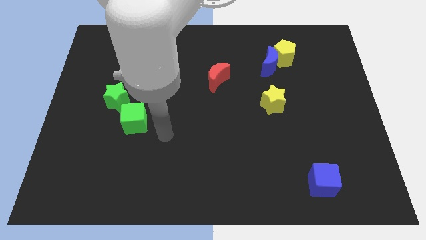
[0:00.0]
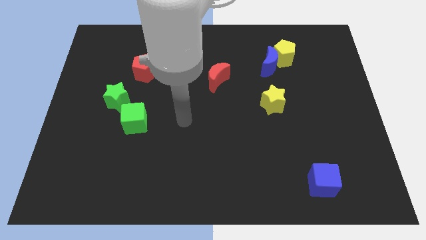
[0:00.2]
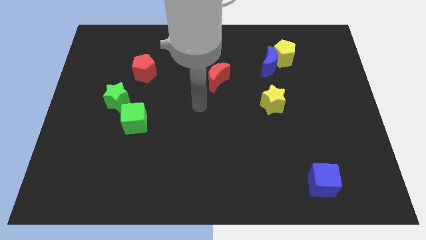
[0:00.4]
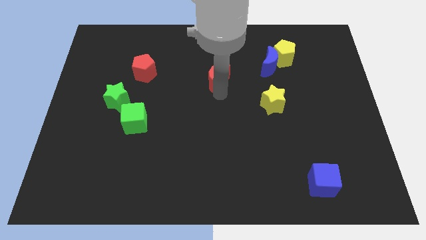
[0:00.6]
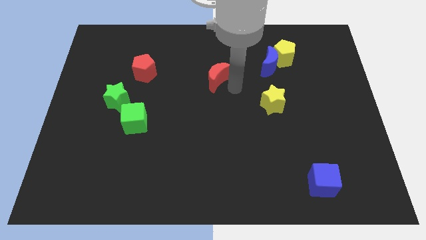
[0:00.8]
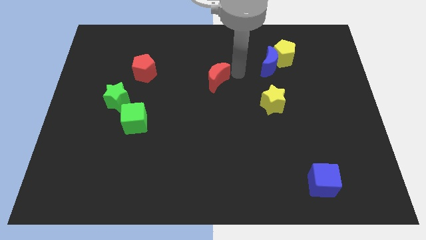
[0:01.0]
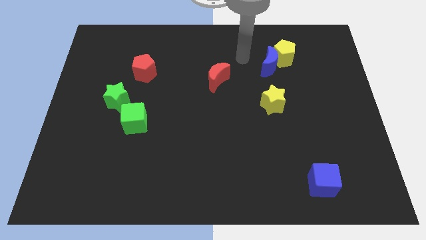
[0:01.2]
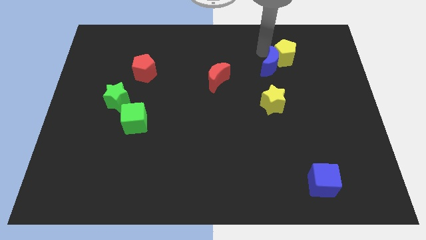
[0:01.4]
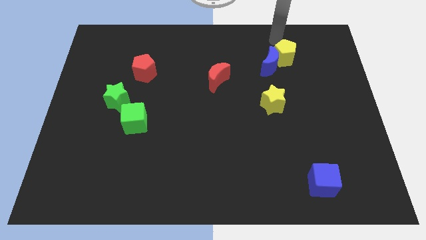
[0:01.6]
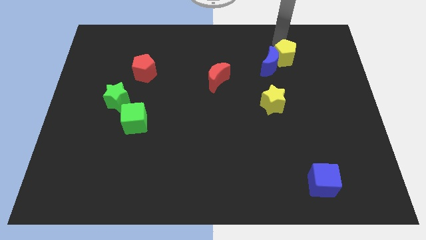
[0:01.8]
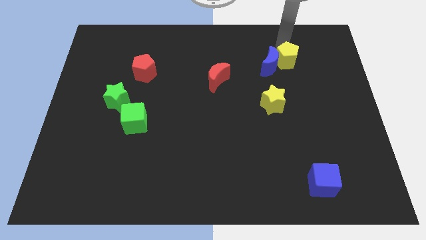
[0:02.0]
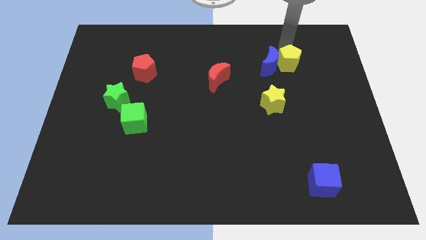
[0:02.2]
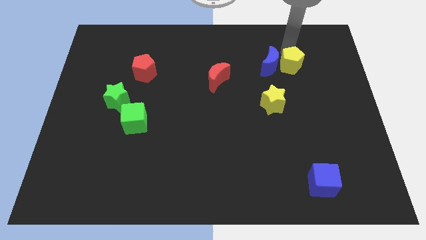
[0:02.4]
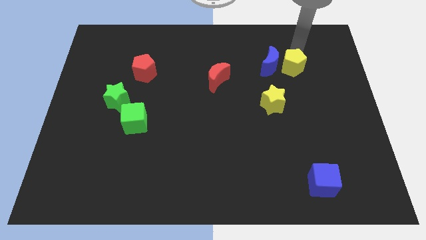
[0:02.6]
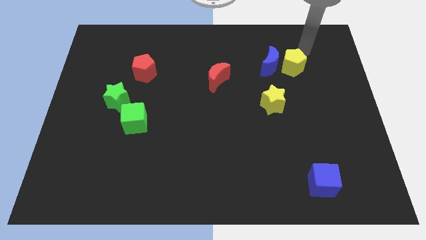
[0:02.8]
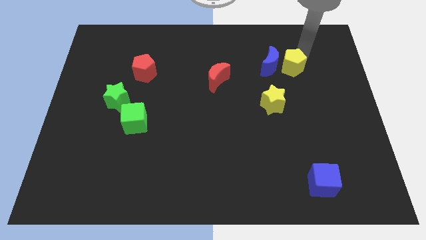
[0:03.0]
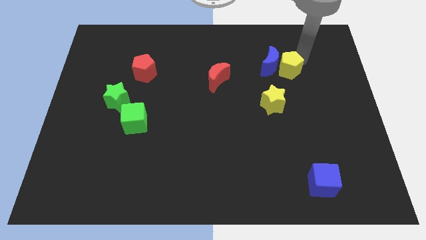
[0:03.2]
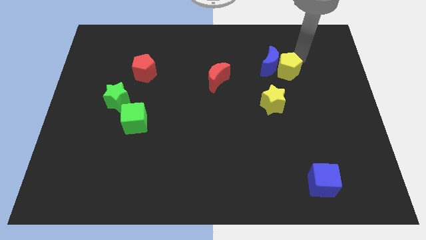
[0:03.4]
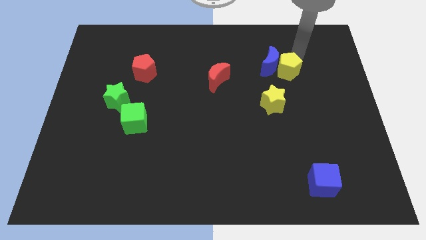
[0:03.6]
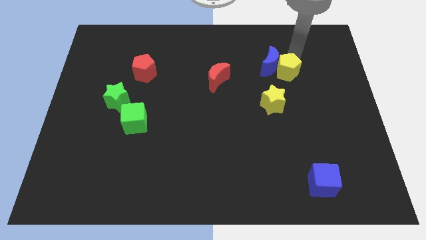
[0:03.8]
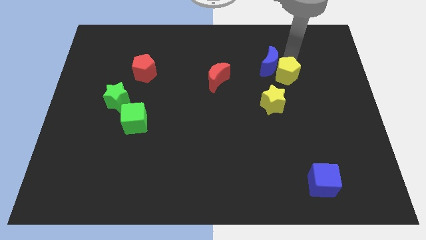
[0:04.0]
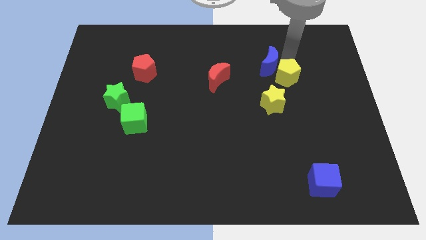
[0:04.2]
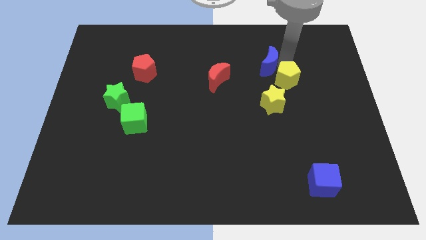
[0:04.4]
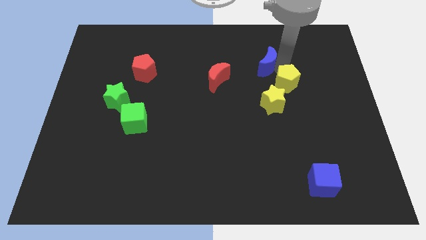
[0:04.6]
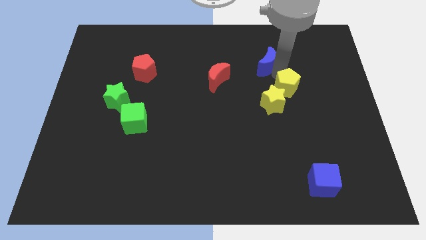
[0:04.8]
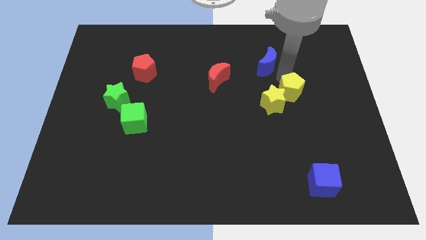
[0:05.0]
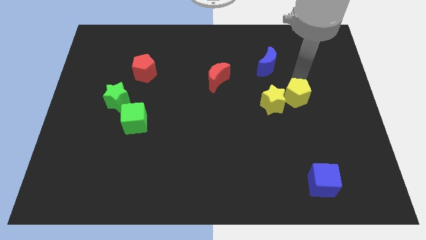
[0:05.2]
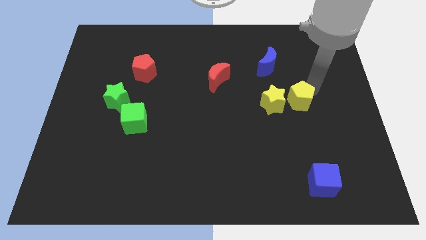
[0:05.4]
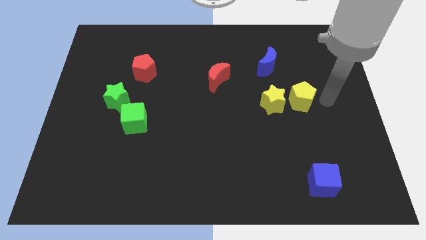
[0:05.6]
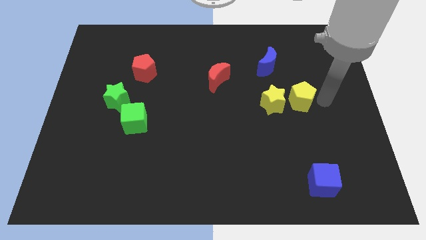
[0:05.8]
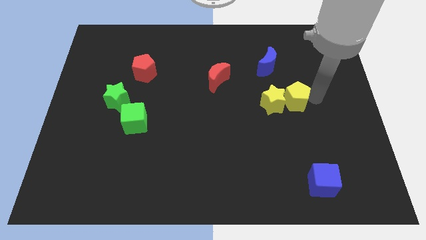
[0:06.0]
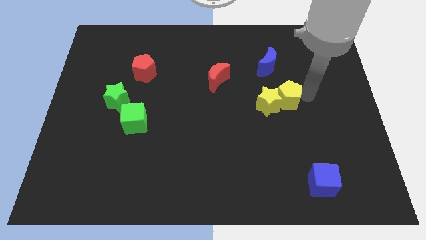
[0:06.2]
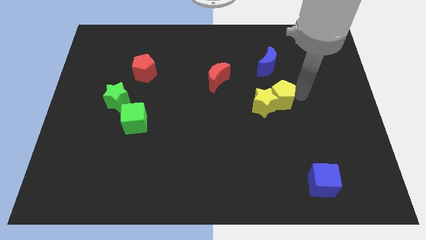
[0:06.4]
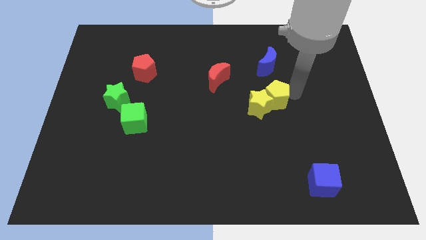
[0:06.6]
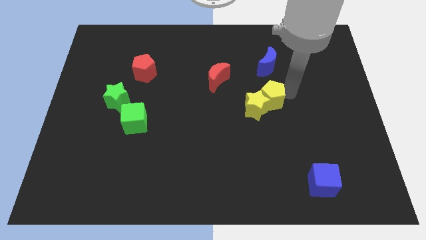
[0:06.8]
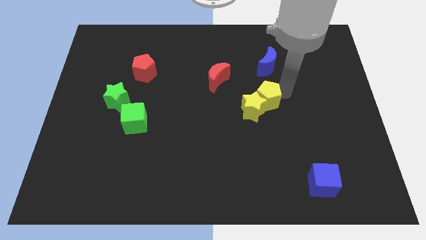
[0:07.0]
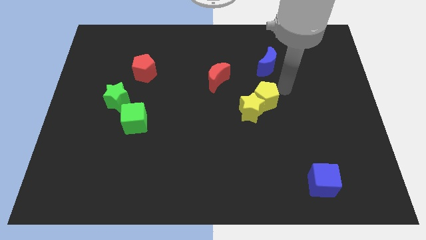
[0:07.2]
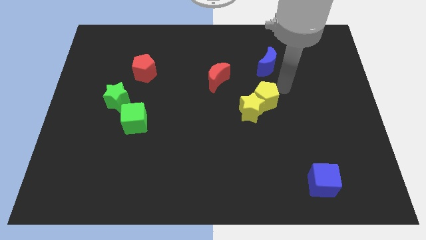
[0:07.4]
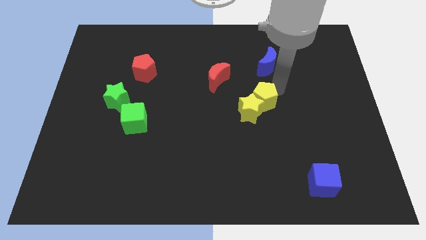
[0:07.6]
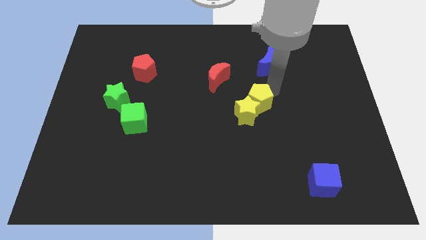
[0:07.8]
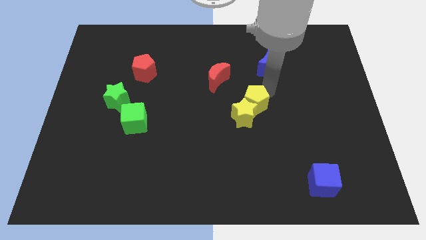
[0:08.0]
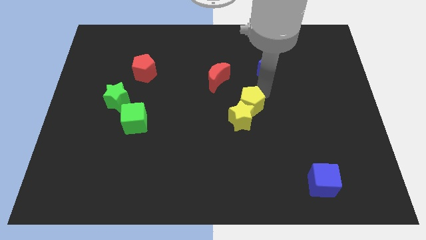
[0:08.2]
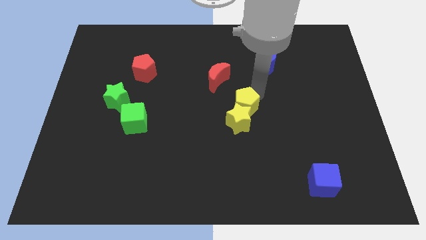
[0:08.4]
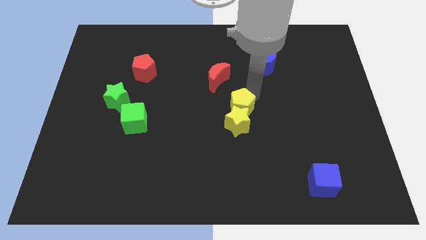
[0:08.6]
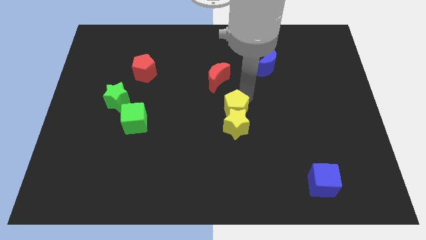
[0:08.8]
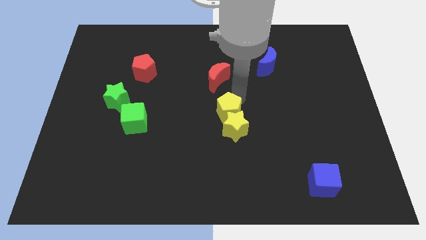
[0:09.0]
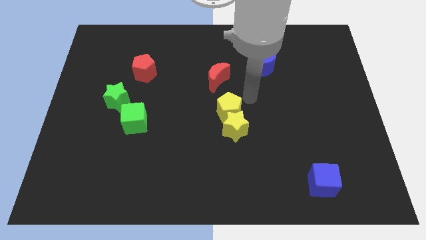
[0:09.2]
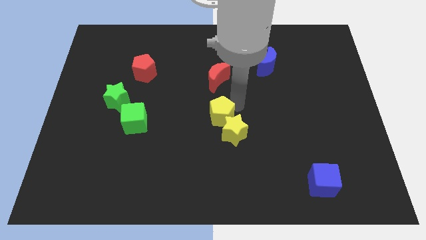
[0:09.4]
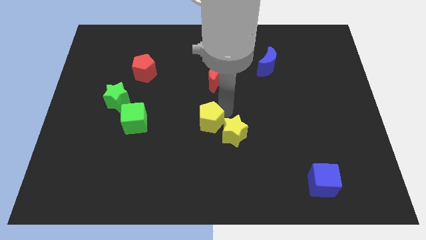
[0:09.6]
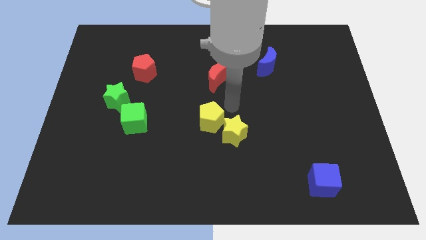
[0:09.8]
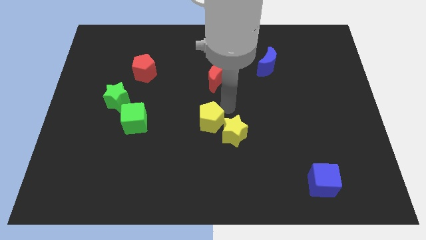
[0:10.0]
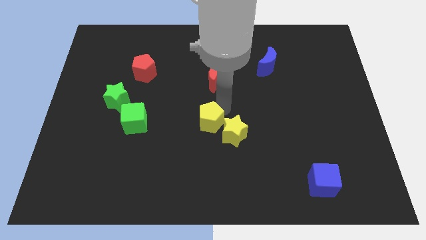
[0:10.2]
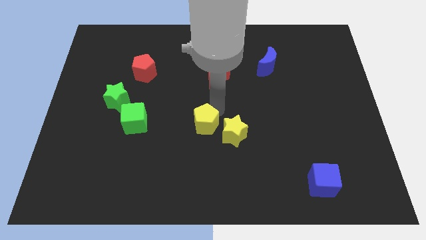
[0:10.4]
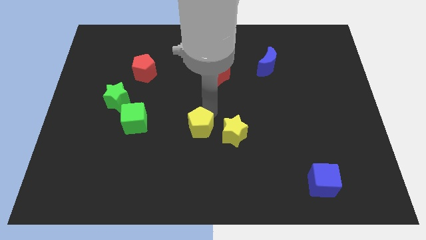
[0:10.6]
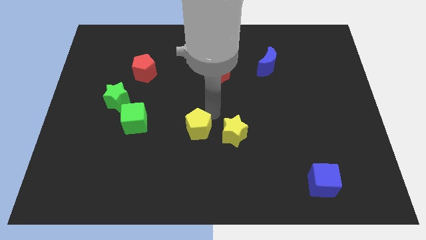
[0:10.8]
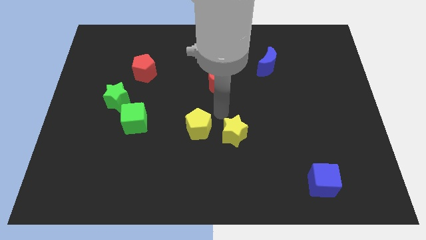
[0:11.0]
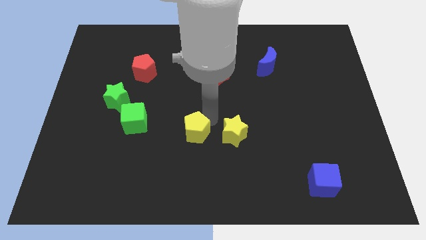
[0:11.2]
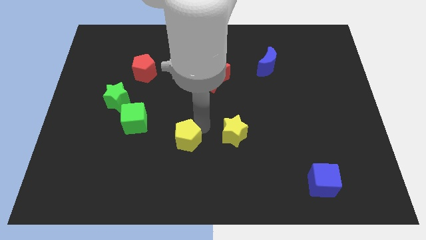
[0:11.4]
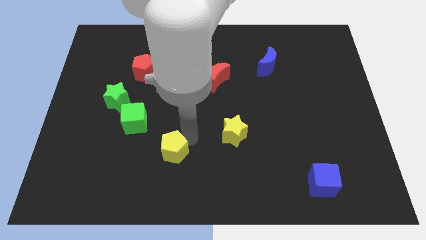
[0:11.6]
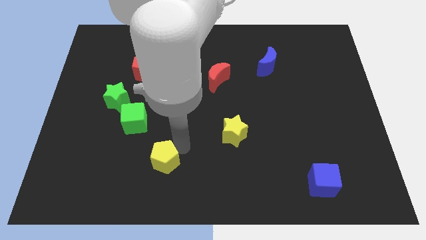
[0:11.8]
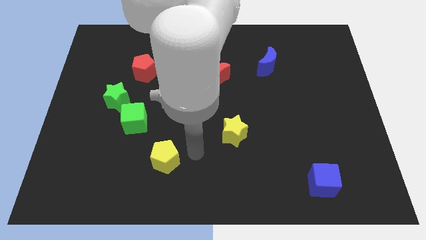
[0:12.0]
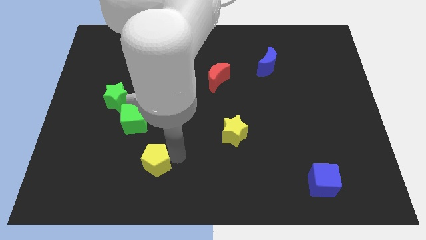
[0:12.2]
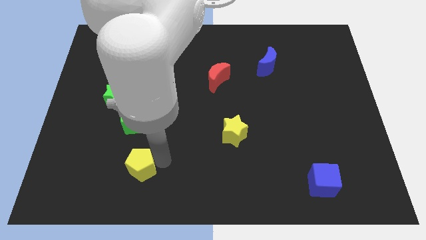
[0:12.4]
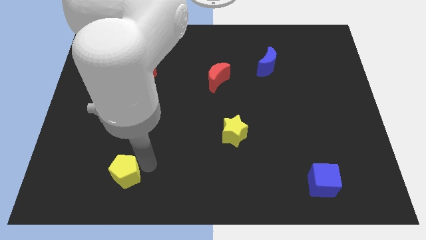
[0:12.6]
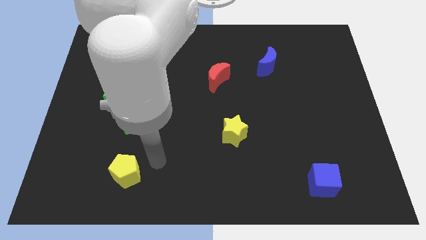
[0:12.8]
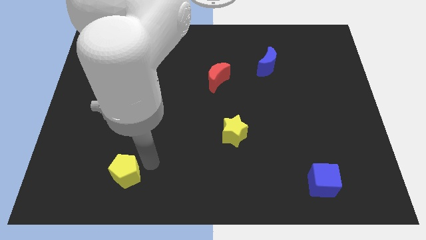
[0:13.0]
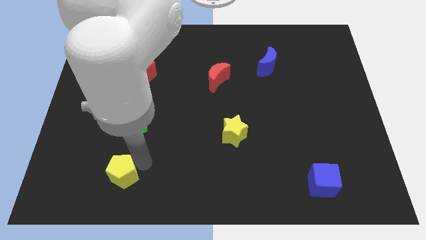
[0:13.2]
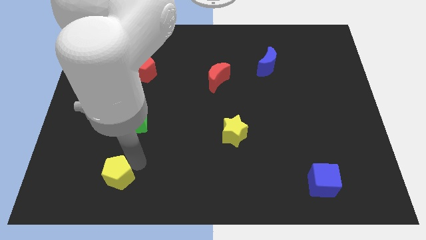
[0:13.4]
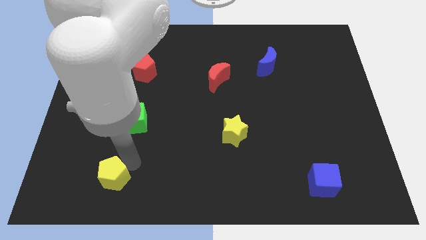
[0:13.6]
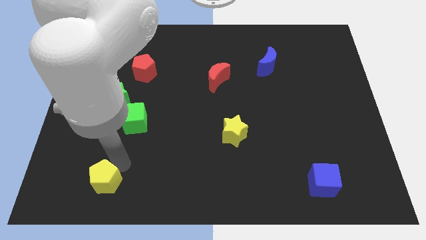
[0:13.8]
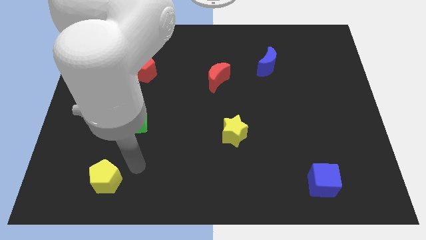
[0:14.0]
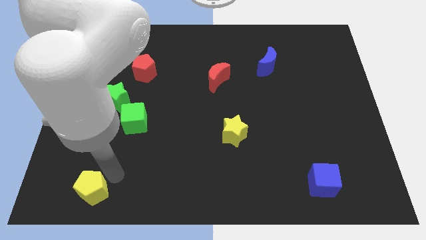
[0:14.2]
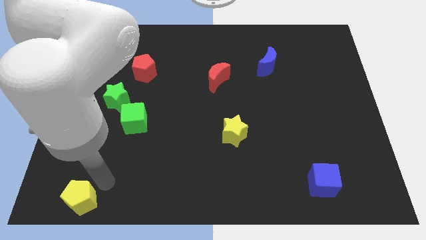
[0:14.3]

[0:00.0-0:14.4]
move the yellow pentagon to the bottom left

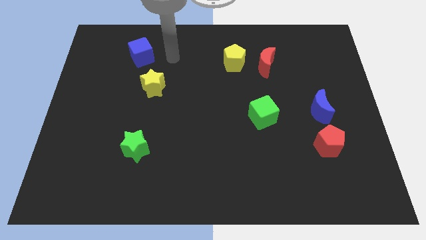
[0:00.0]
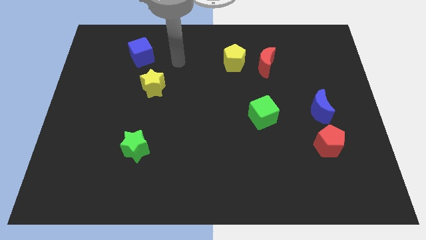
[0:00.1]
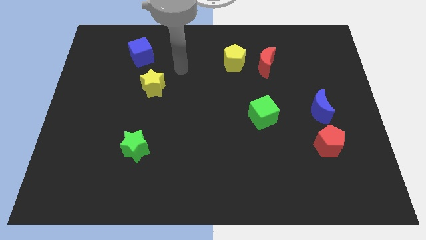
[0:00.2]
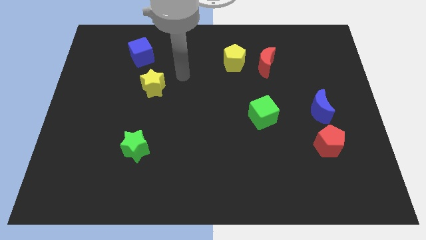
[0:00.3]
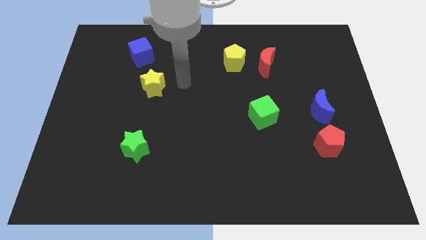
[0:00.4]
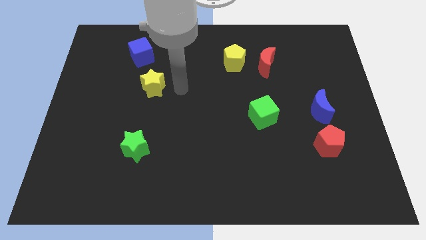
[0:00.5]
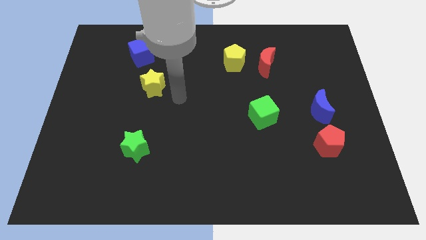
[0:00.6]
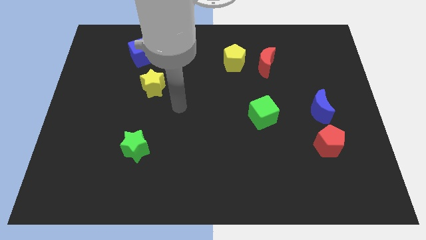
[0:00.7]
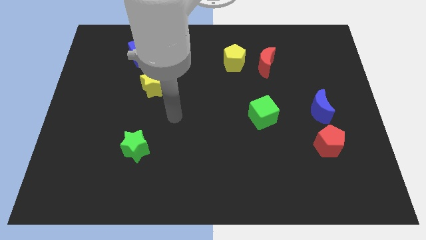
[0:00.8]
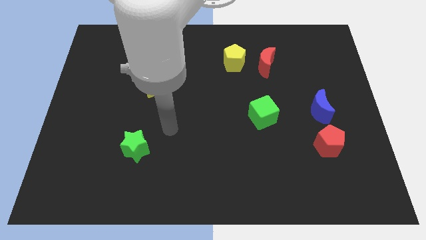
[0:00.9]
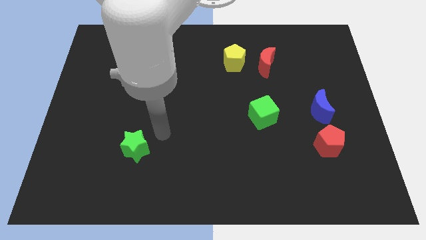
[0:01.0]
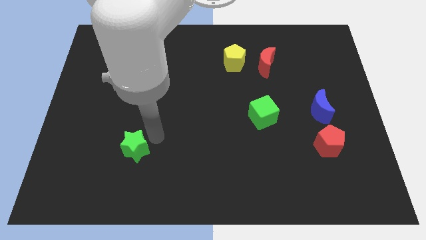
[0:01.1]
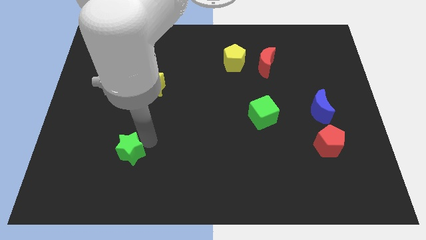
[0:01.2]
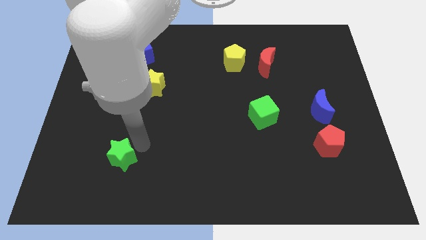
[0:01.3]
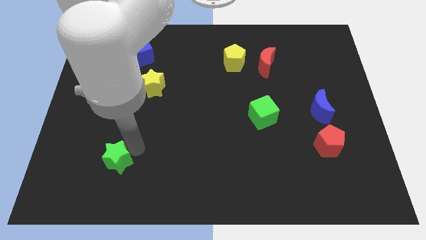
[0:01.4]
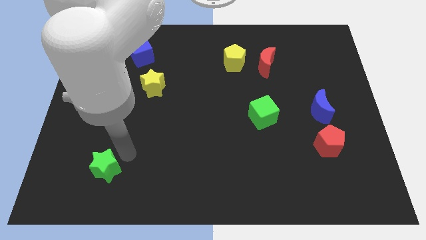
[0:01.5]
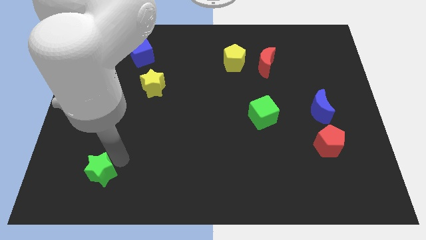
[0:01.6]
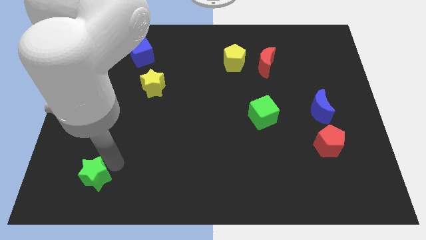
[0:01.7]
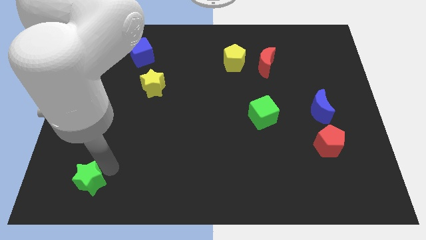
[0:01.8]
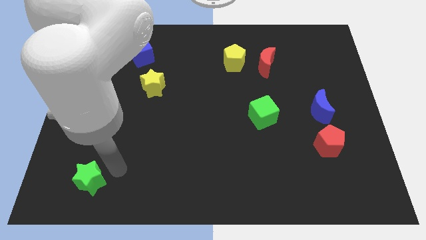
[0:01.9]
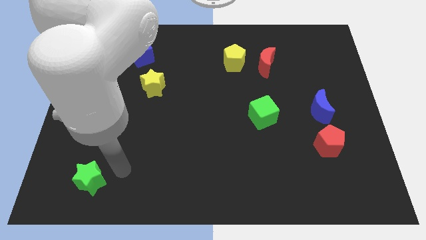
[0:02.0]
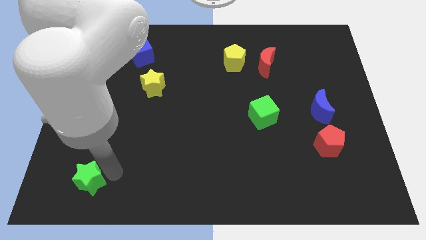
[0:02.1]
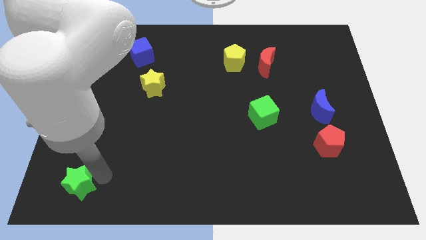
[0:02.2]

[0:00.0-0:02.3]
push the green star to the bottom left of the board
